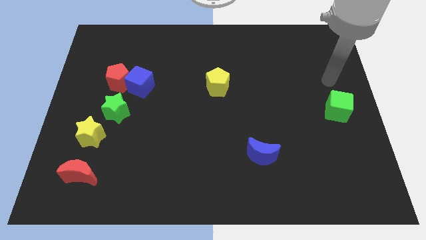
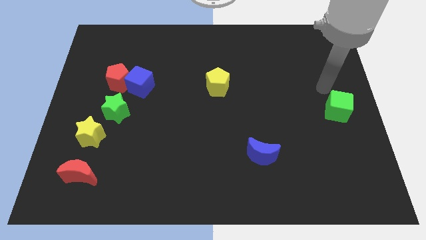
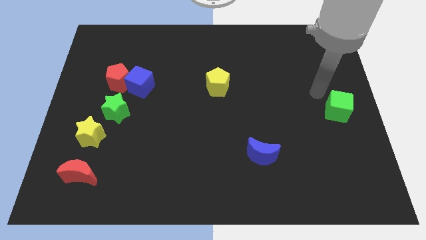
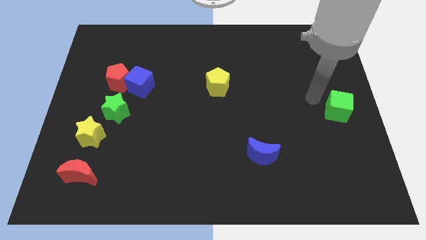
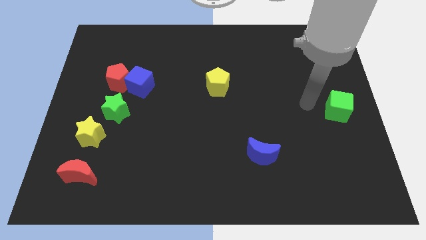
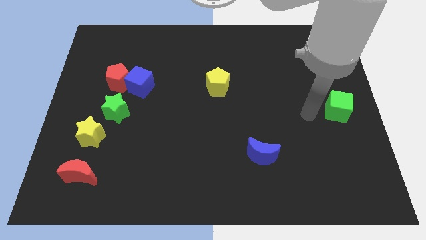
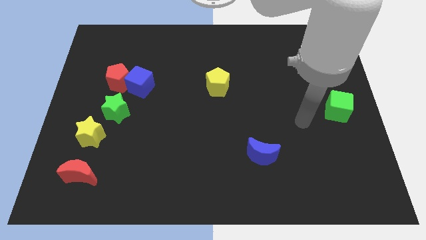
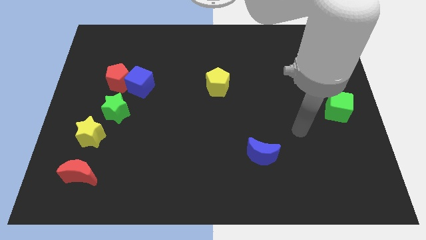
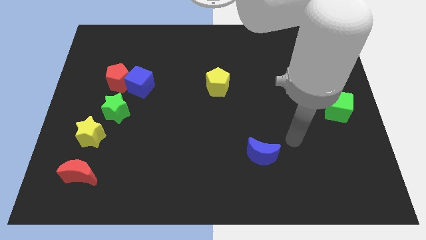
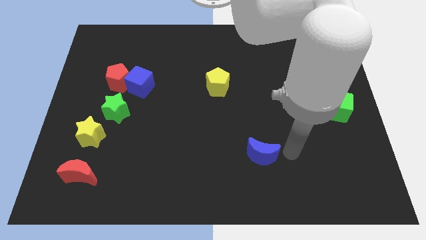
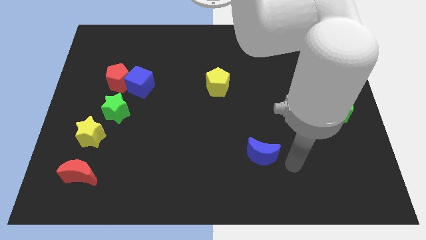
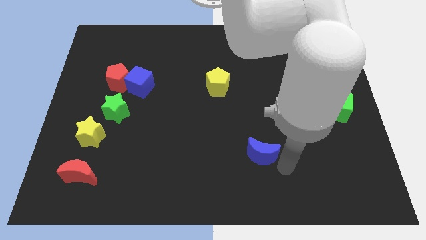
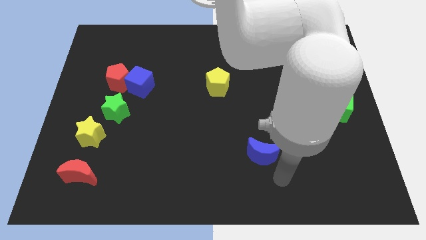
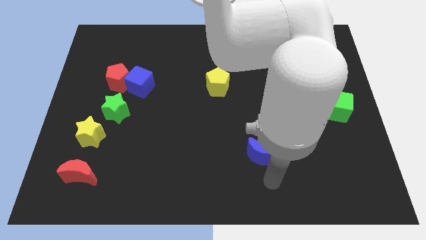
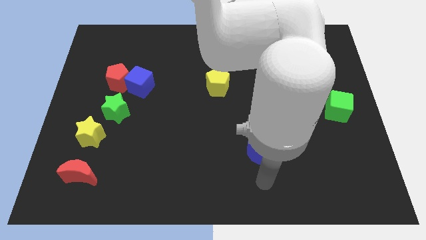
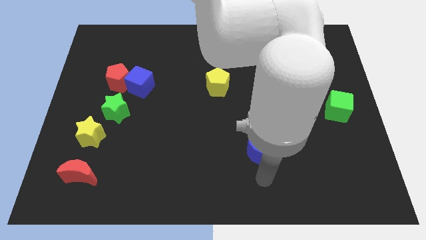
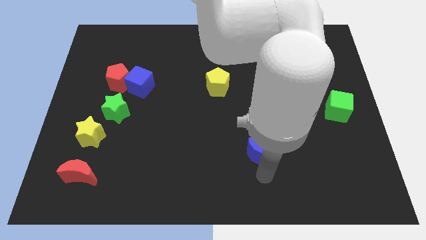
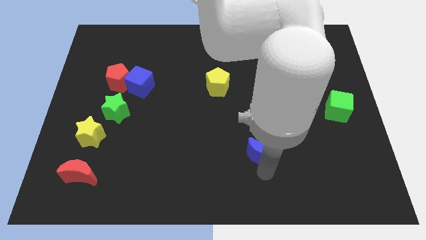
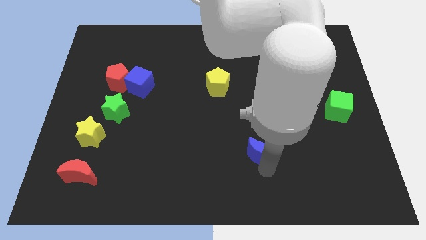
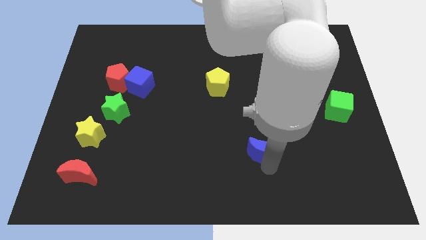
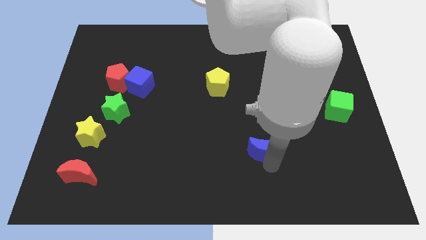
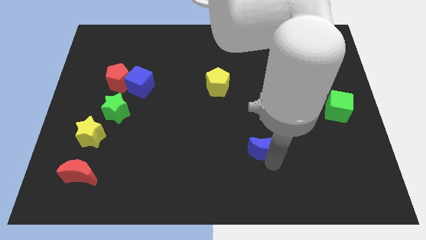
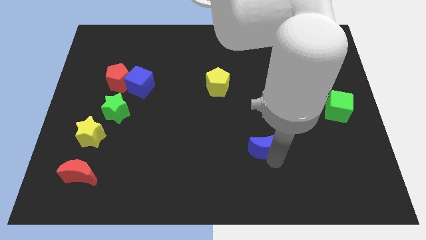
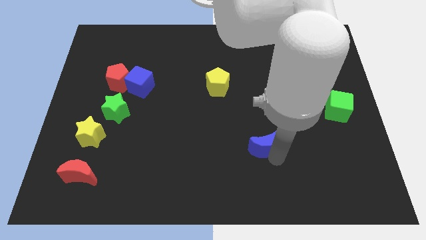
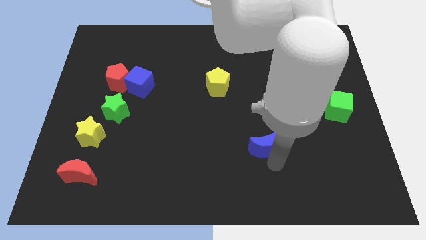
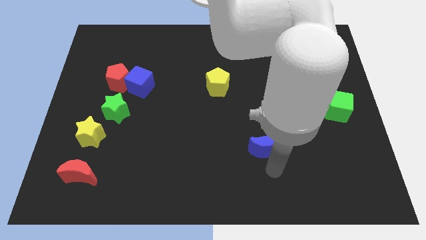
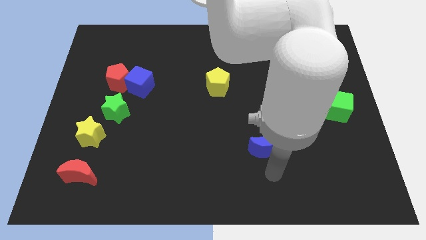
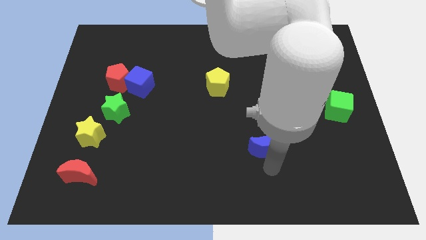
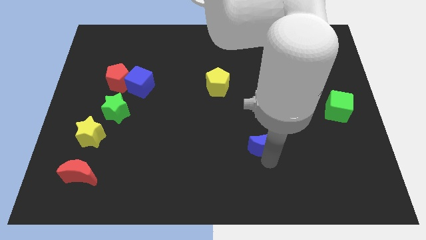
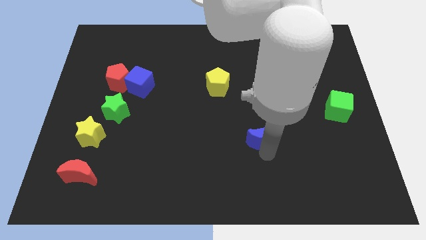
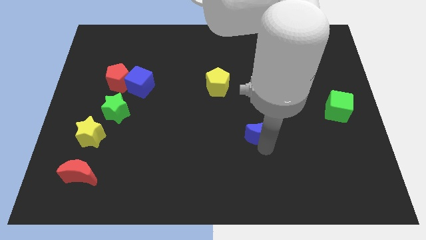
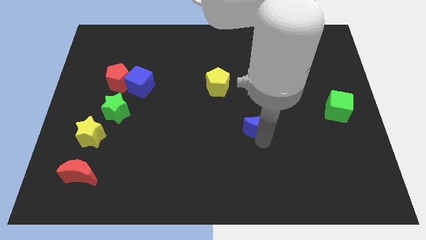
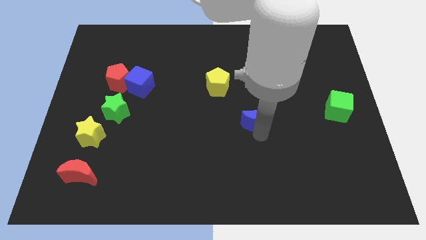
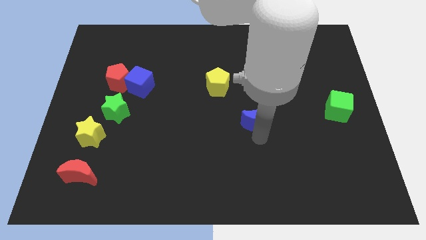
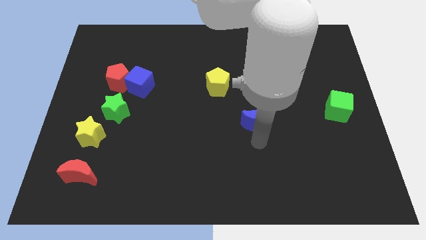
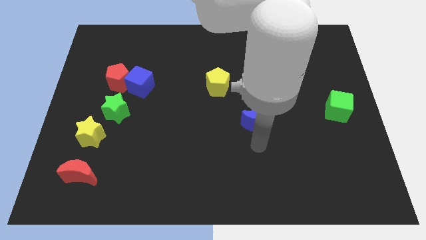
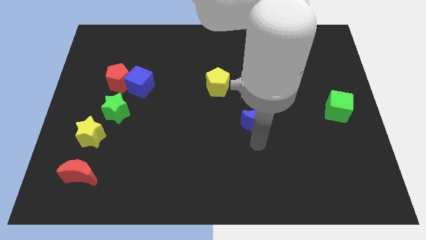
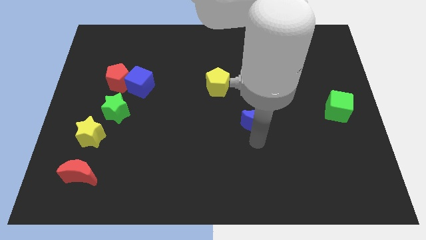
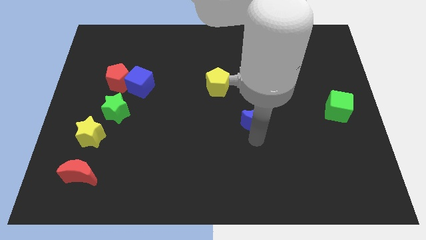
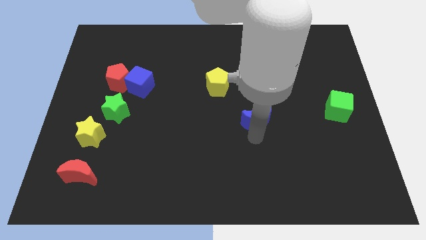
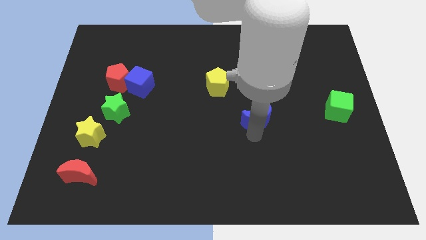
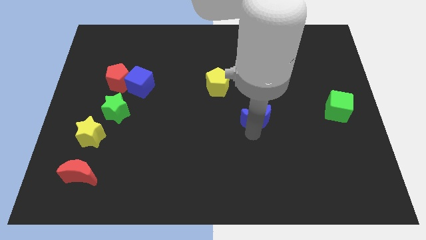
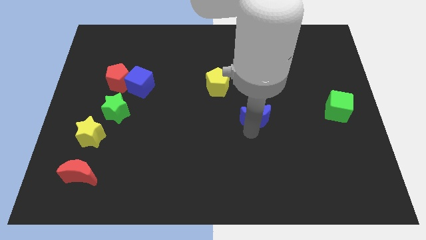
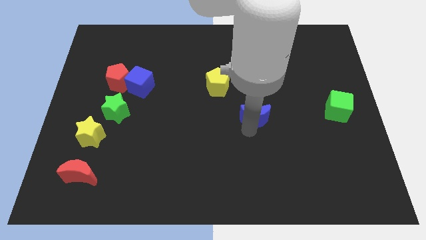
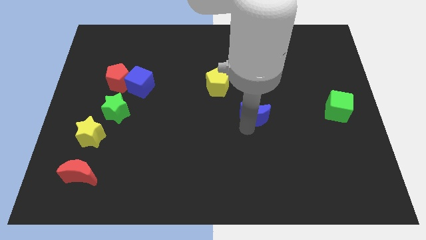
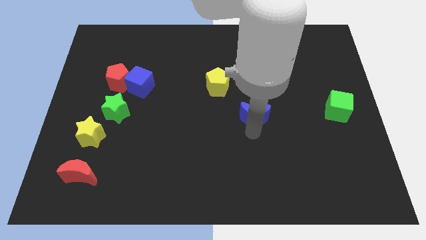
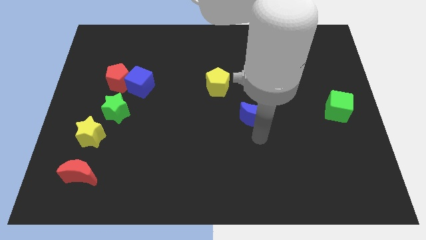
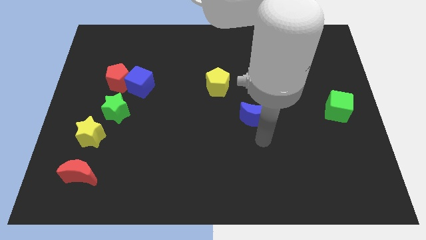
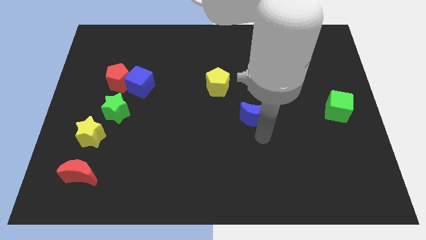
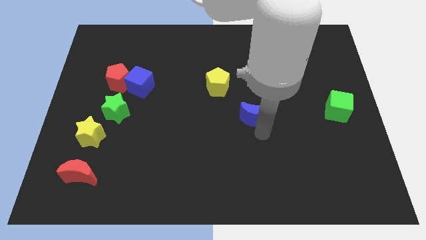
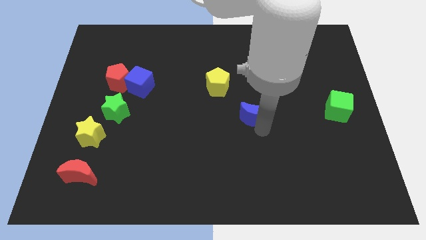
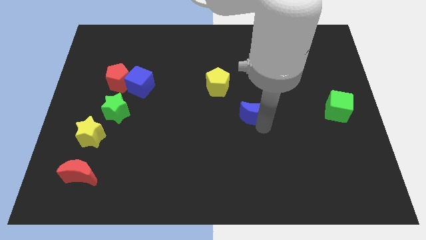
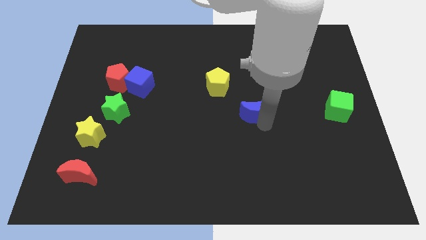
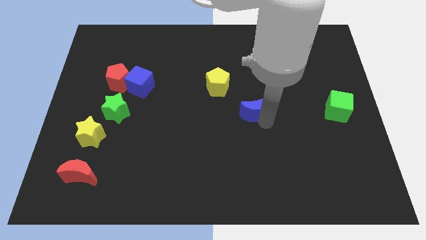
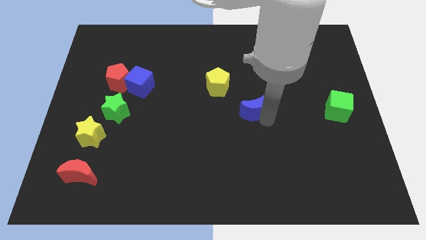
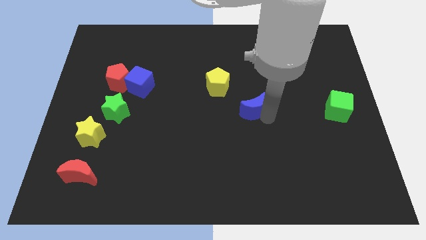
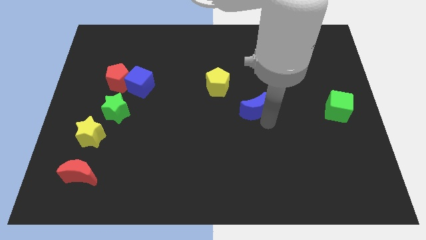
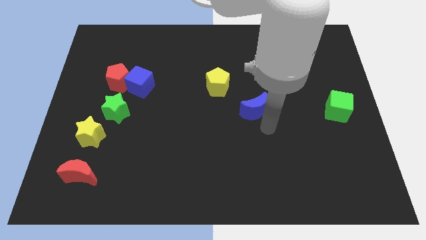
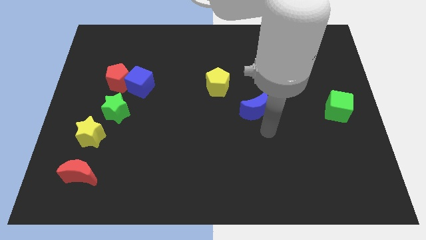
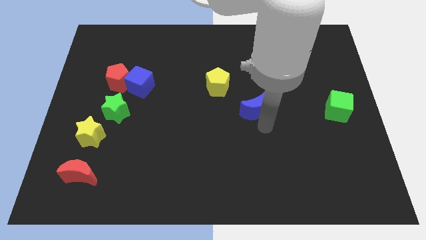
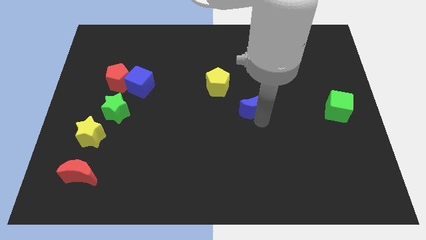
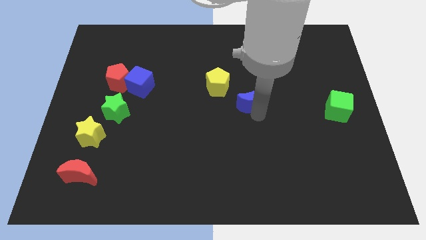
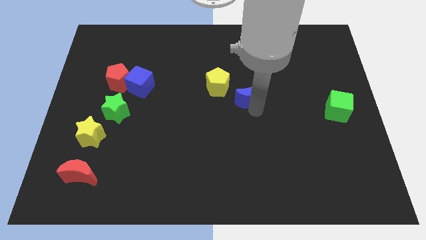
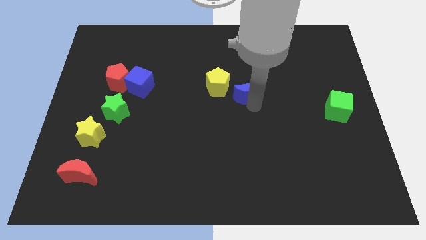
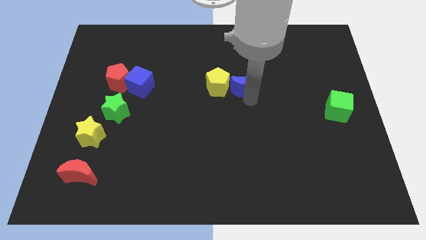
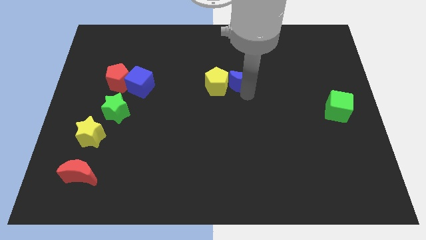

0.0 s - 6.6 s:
slide the blue moon to the top right side of the yellow pentagon
